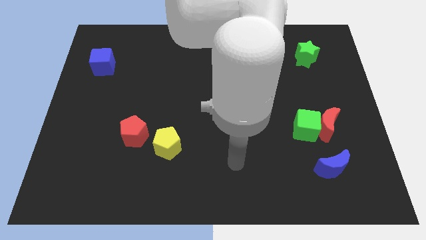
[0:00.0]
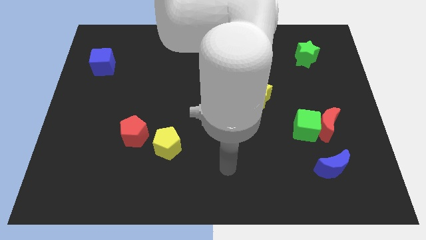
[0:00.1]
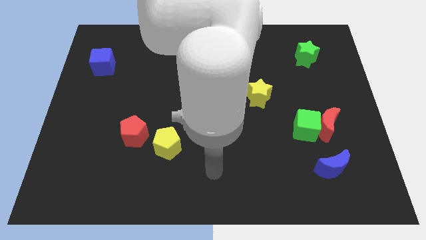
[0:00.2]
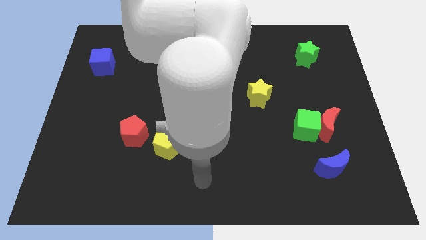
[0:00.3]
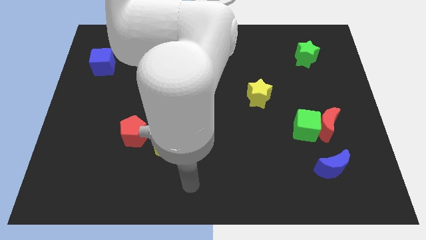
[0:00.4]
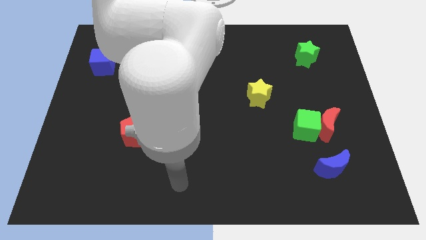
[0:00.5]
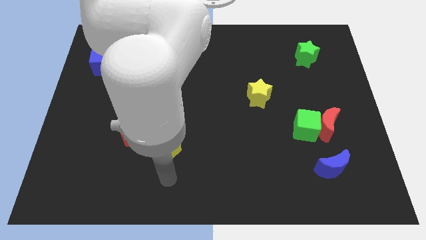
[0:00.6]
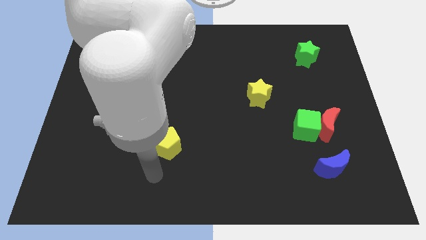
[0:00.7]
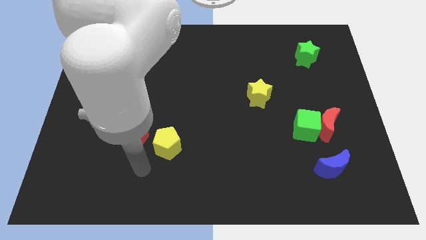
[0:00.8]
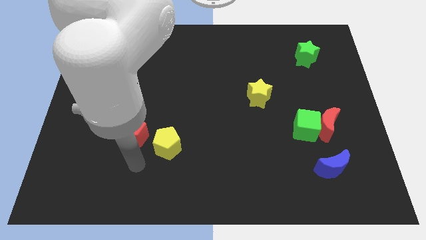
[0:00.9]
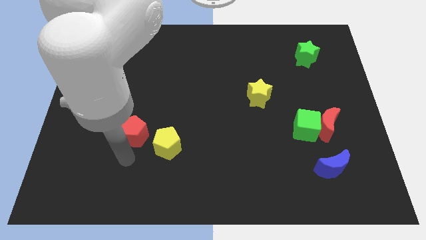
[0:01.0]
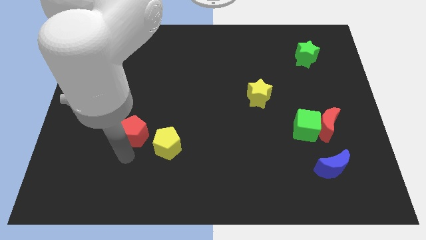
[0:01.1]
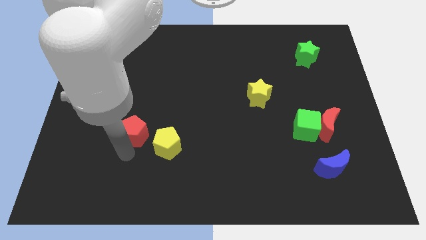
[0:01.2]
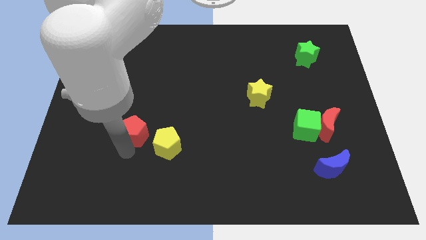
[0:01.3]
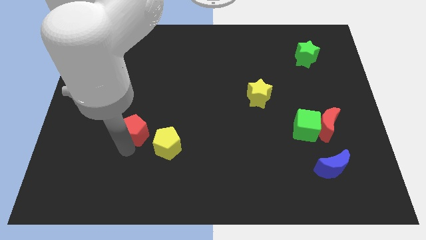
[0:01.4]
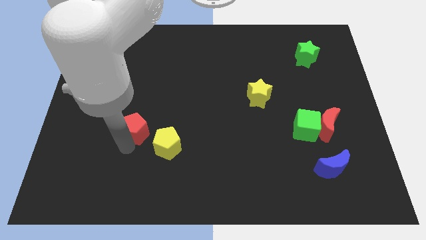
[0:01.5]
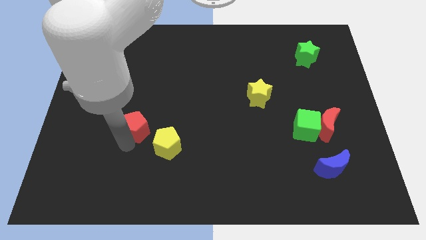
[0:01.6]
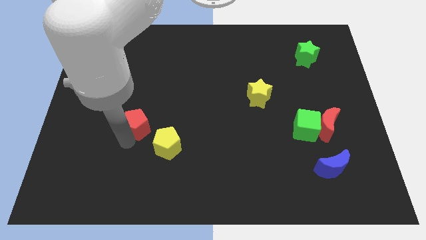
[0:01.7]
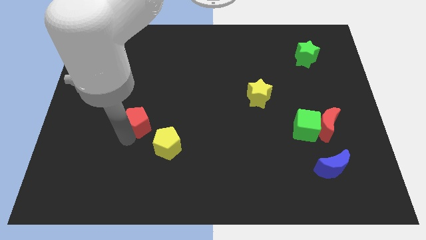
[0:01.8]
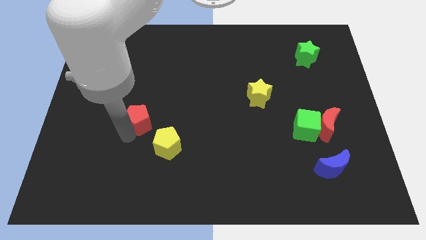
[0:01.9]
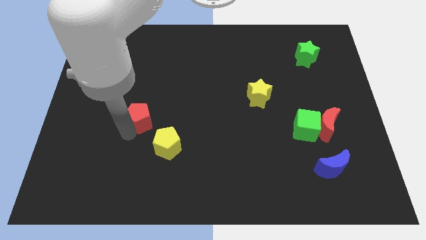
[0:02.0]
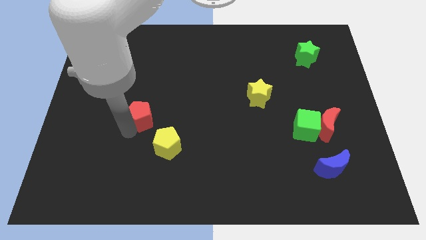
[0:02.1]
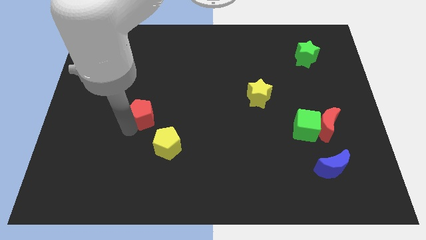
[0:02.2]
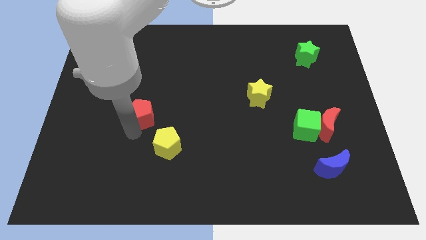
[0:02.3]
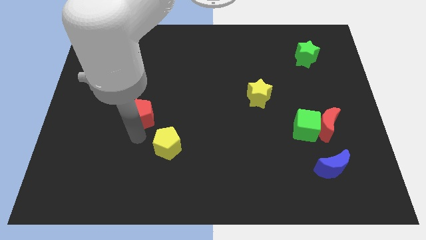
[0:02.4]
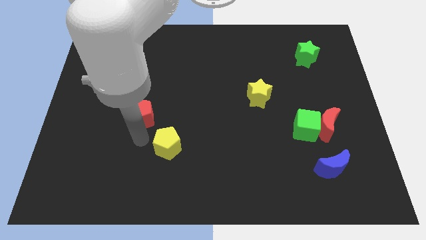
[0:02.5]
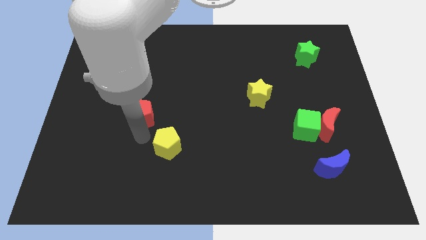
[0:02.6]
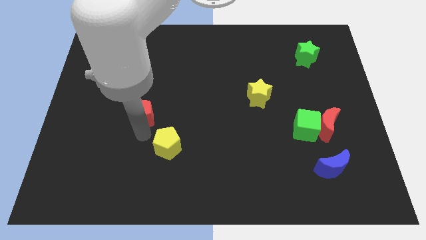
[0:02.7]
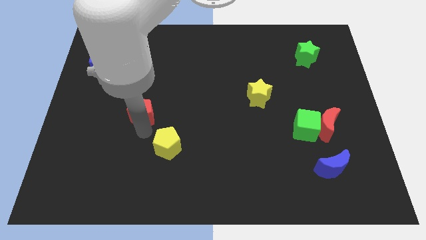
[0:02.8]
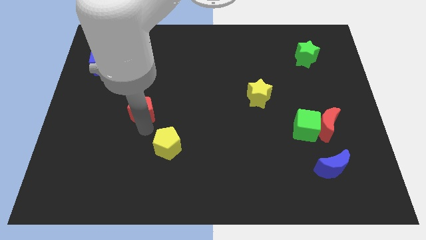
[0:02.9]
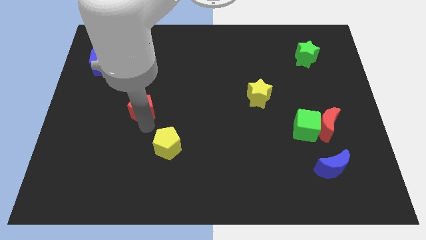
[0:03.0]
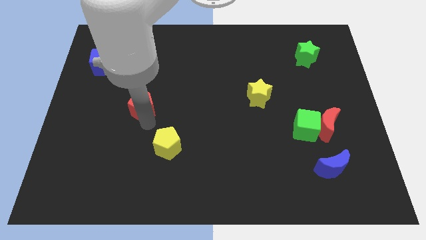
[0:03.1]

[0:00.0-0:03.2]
push the red pentagon upwards a little bit

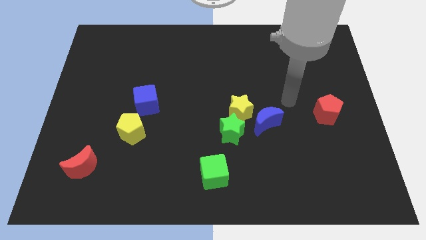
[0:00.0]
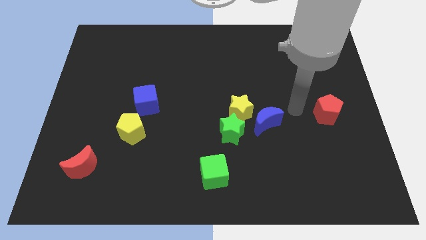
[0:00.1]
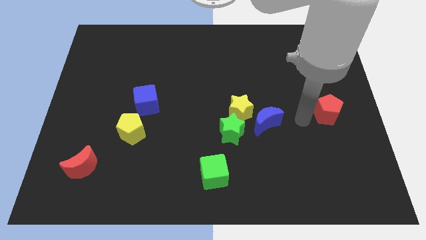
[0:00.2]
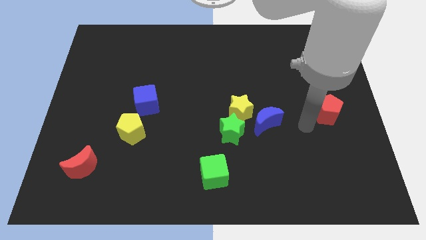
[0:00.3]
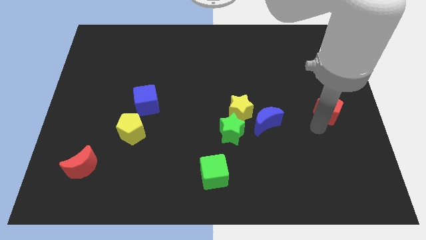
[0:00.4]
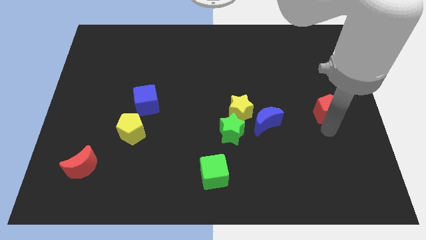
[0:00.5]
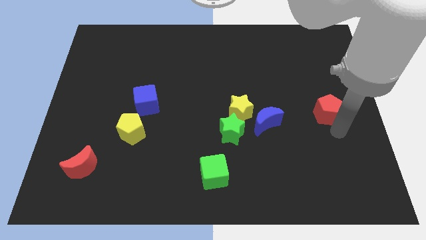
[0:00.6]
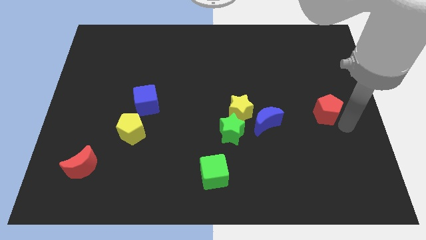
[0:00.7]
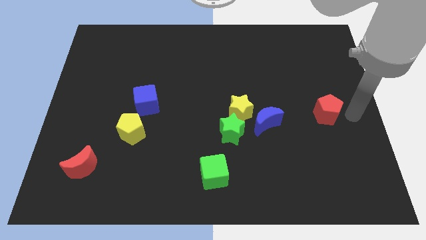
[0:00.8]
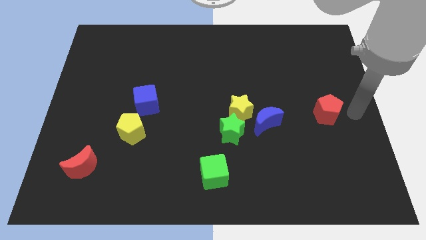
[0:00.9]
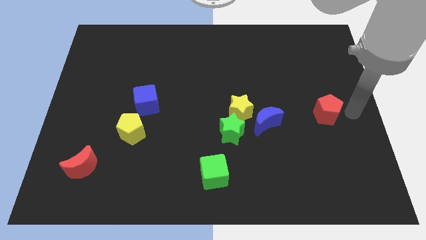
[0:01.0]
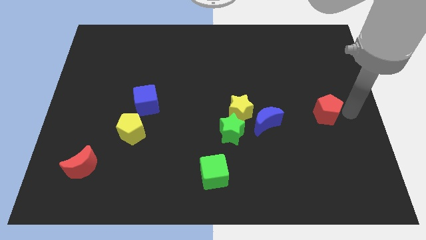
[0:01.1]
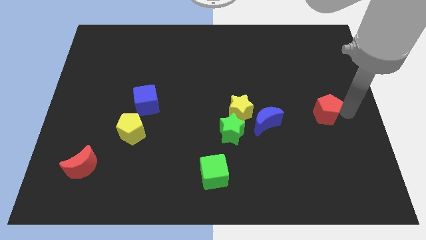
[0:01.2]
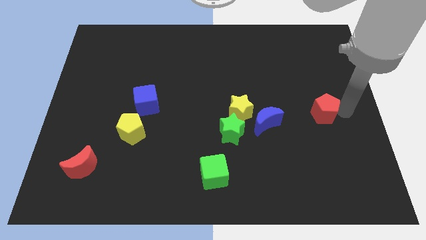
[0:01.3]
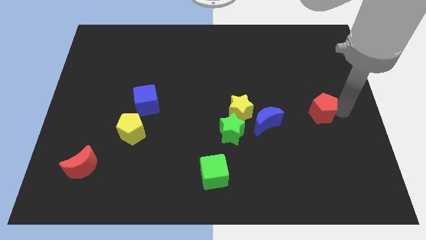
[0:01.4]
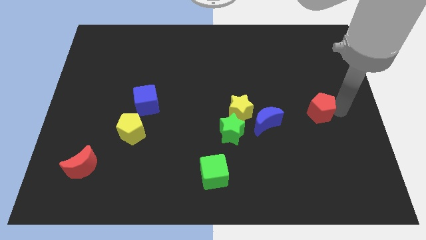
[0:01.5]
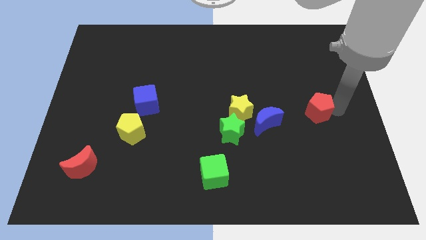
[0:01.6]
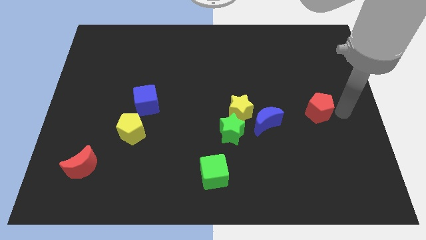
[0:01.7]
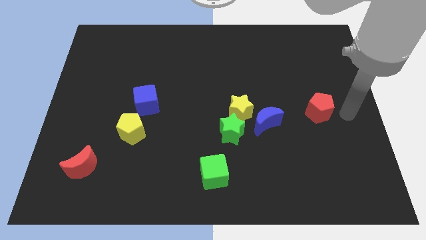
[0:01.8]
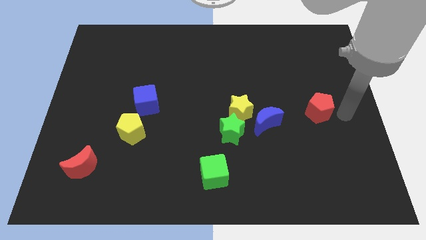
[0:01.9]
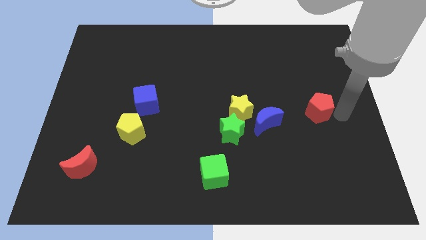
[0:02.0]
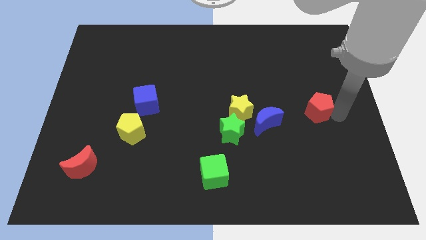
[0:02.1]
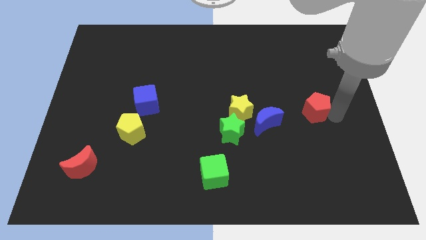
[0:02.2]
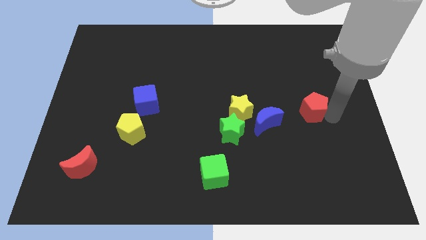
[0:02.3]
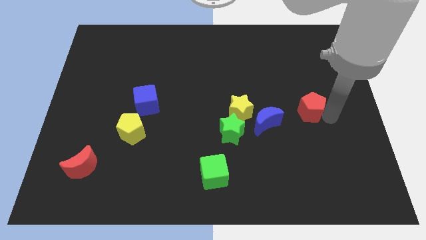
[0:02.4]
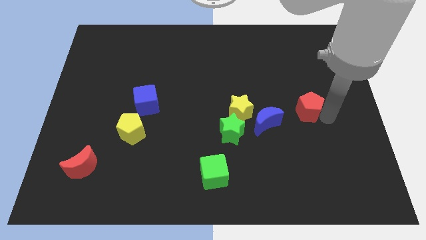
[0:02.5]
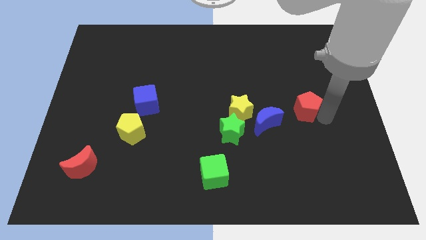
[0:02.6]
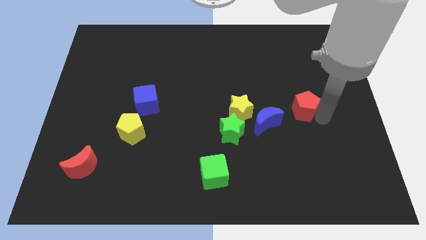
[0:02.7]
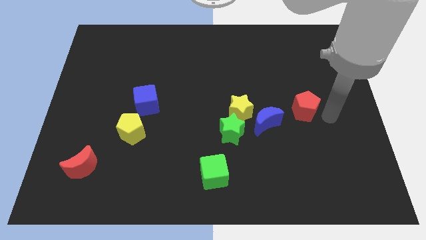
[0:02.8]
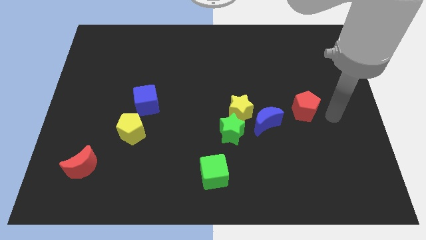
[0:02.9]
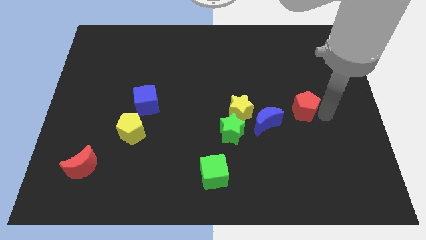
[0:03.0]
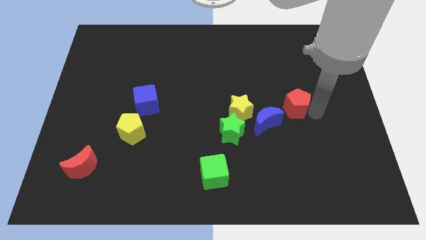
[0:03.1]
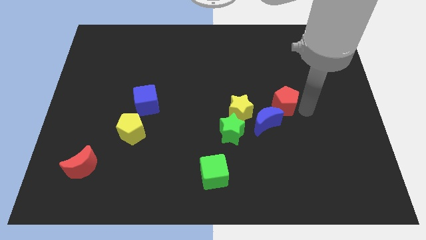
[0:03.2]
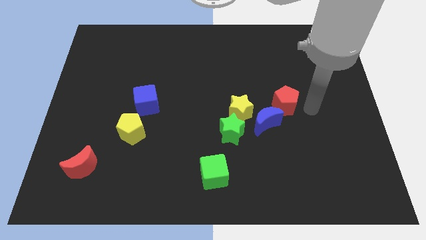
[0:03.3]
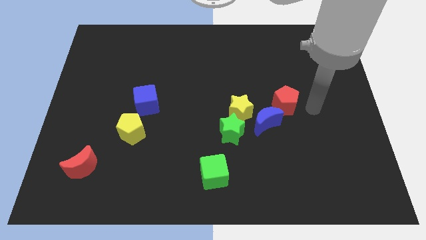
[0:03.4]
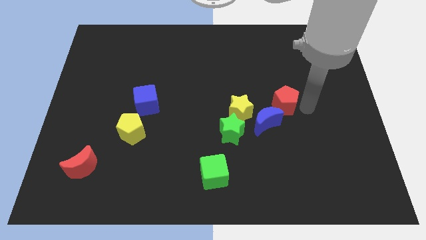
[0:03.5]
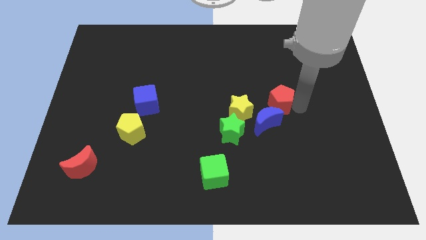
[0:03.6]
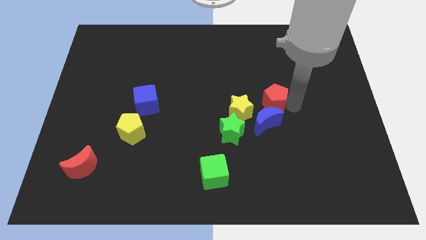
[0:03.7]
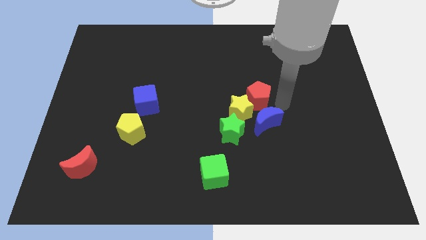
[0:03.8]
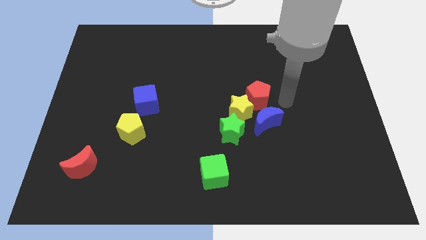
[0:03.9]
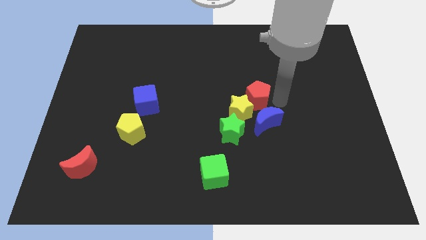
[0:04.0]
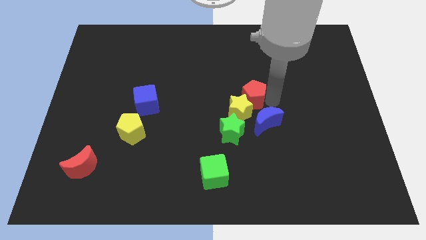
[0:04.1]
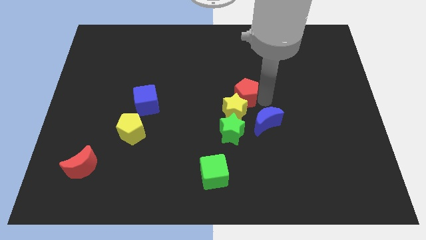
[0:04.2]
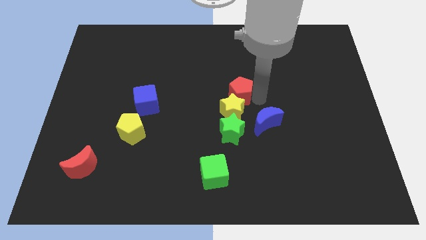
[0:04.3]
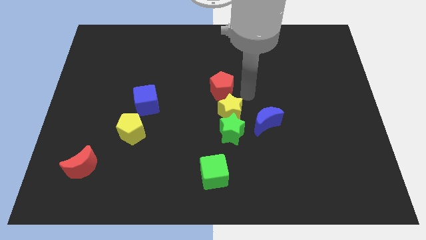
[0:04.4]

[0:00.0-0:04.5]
push the red pentagon left
